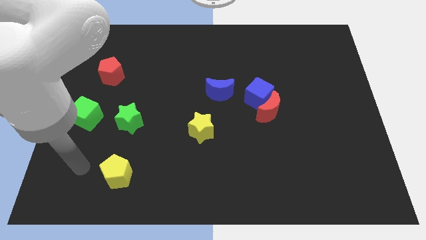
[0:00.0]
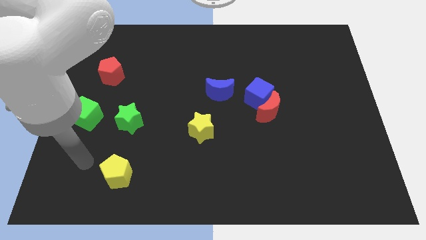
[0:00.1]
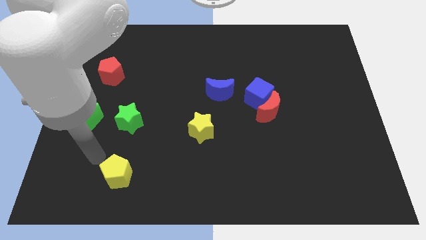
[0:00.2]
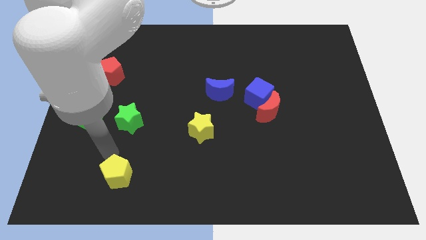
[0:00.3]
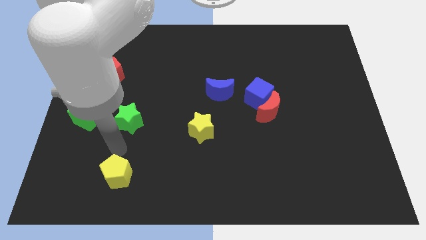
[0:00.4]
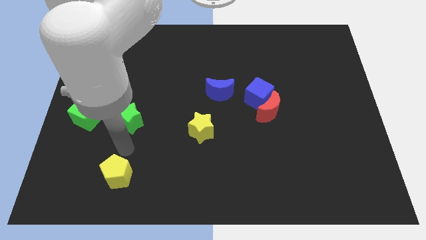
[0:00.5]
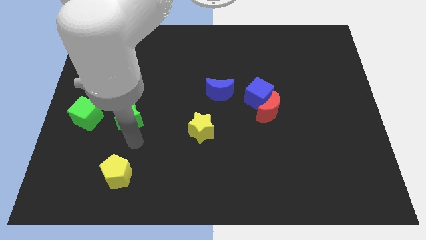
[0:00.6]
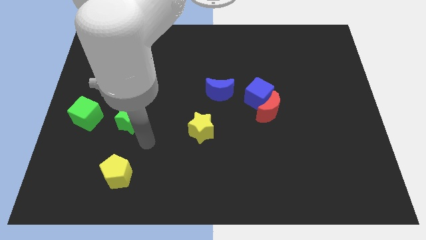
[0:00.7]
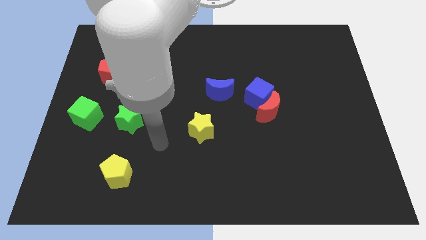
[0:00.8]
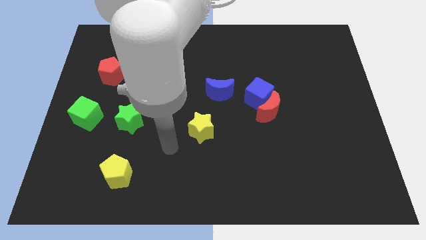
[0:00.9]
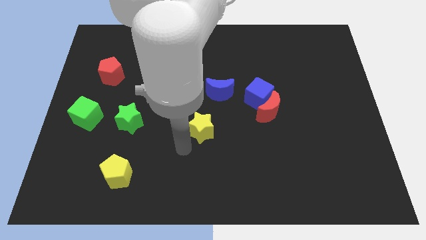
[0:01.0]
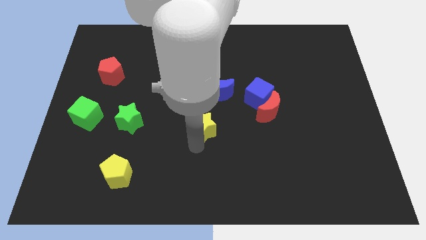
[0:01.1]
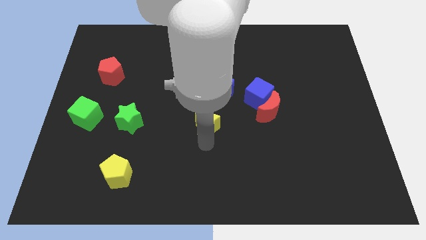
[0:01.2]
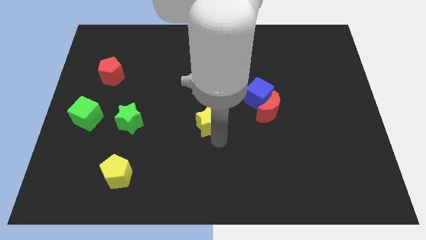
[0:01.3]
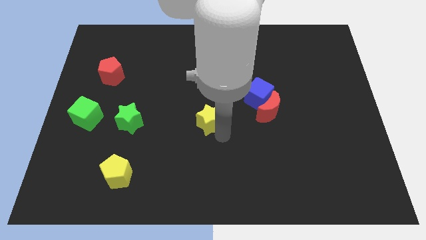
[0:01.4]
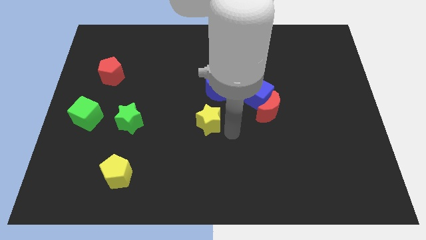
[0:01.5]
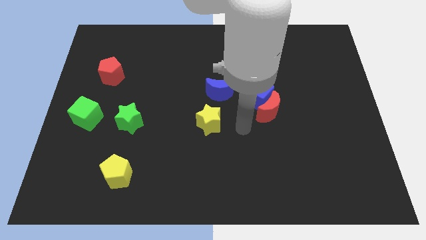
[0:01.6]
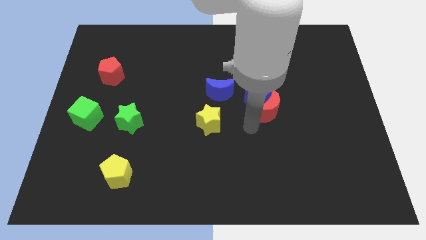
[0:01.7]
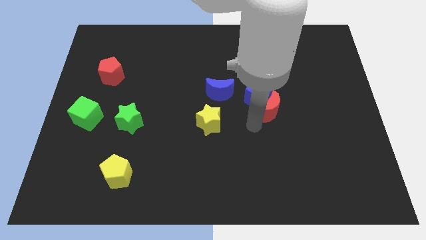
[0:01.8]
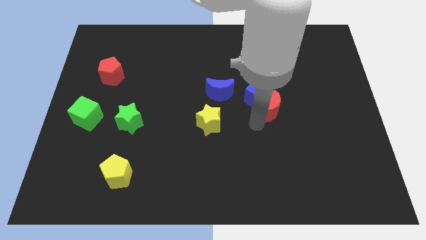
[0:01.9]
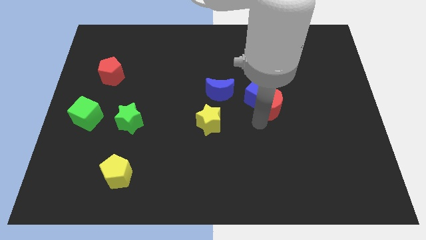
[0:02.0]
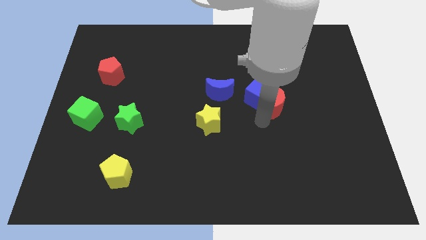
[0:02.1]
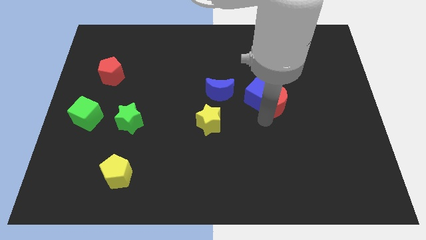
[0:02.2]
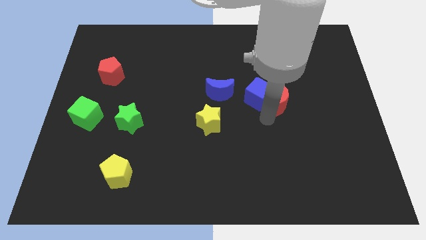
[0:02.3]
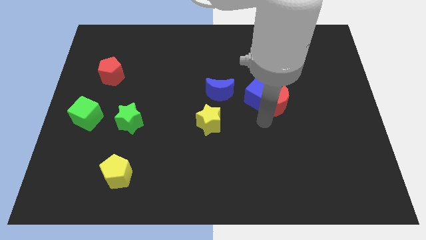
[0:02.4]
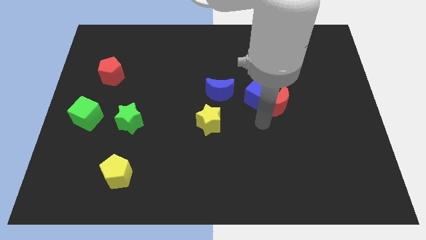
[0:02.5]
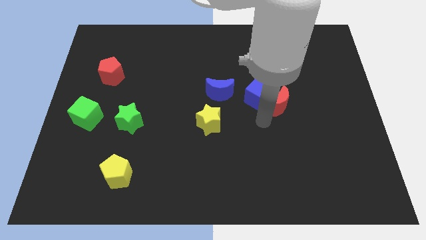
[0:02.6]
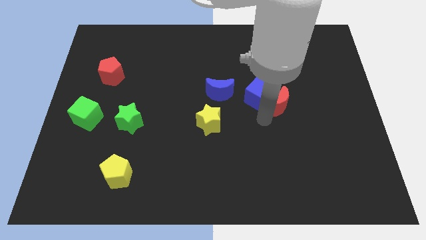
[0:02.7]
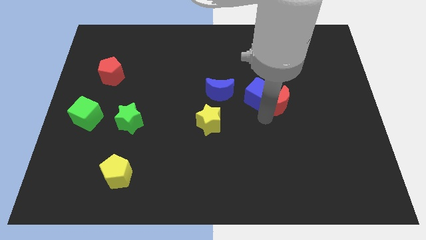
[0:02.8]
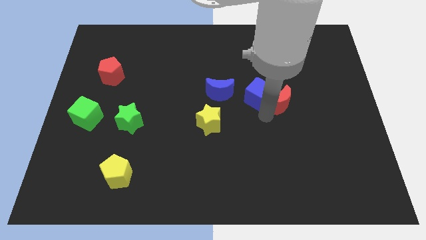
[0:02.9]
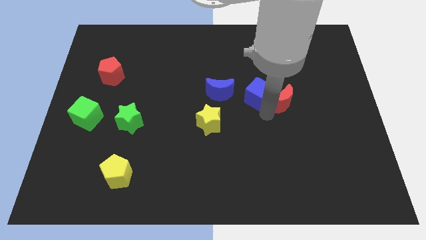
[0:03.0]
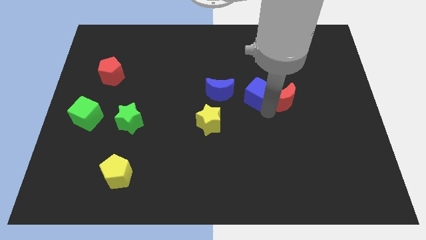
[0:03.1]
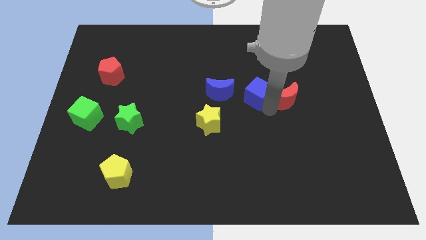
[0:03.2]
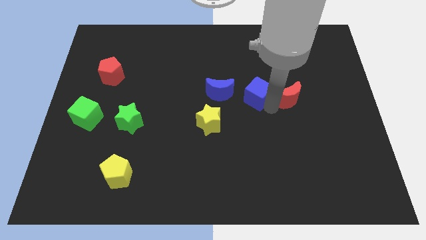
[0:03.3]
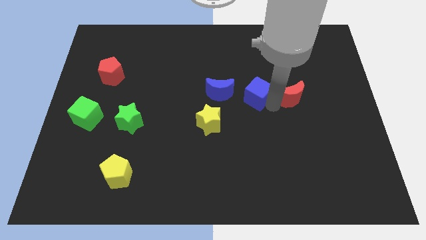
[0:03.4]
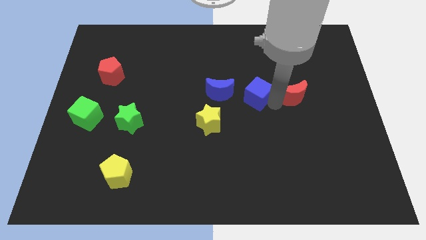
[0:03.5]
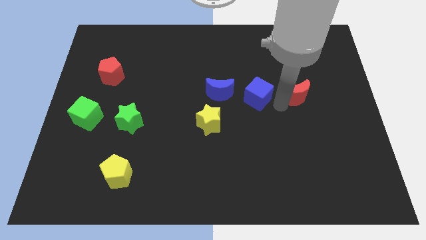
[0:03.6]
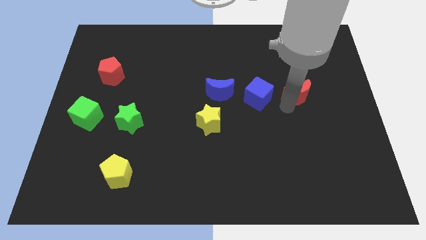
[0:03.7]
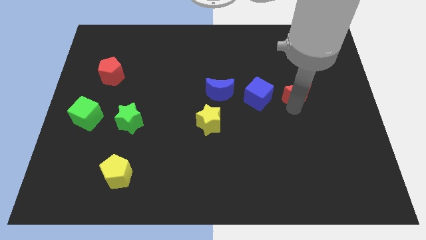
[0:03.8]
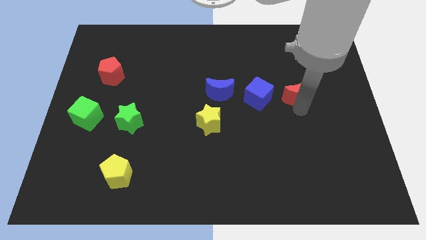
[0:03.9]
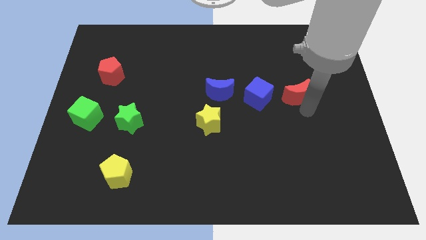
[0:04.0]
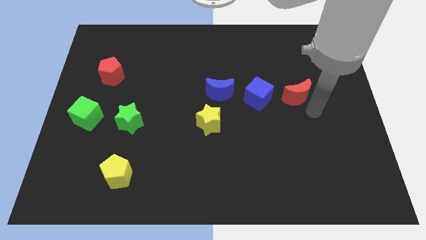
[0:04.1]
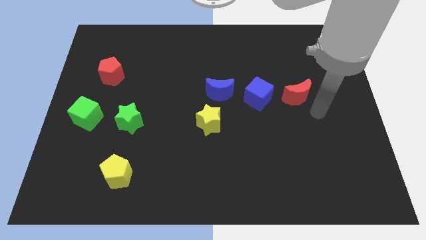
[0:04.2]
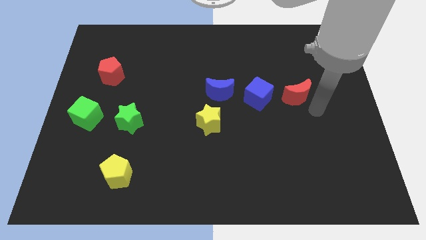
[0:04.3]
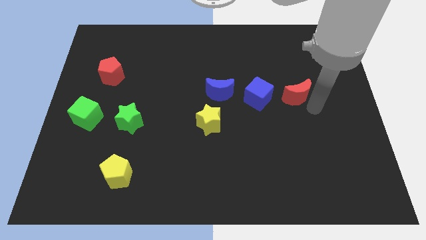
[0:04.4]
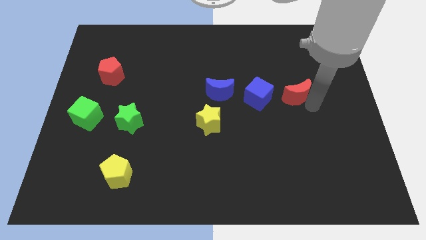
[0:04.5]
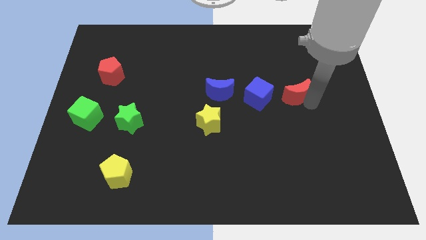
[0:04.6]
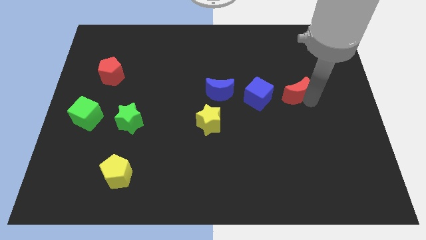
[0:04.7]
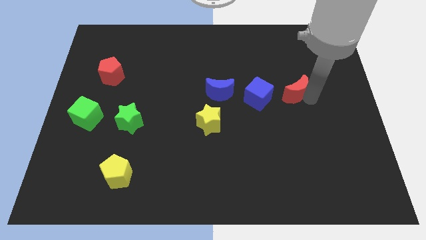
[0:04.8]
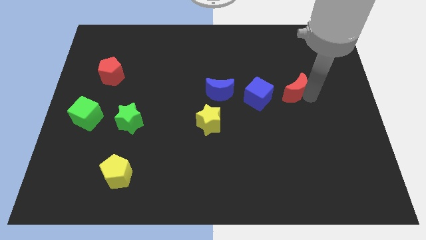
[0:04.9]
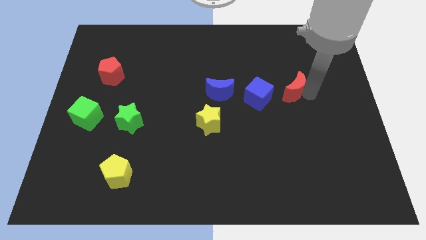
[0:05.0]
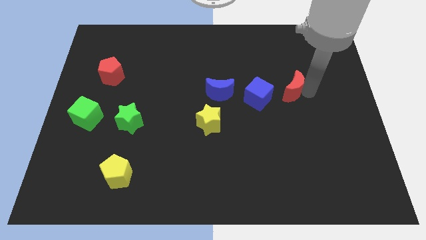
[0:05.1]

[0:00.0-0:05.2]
slide the red moon diagonally up and to the right of the blue cube

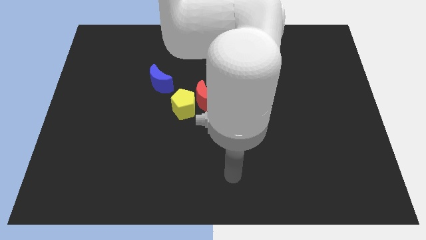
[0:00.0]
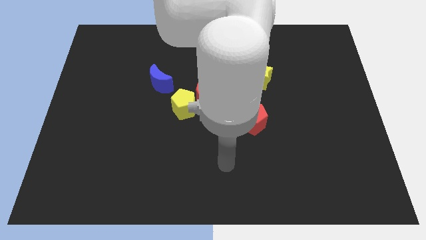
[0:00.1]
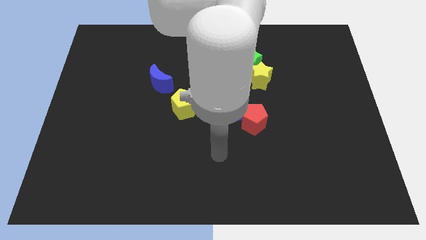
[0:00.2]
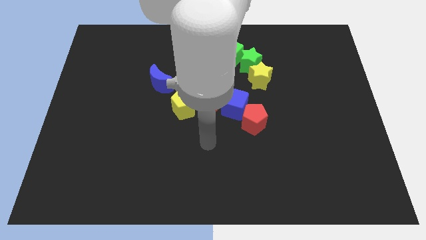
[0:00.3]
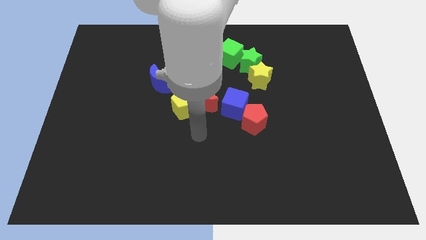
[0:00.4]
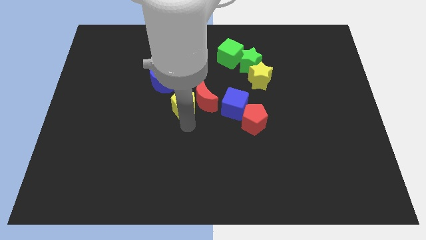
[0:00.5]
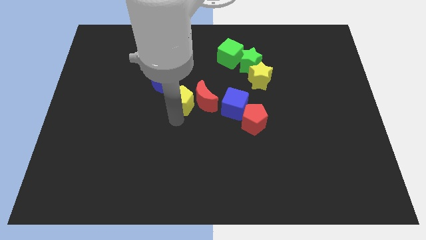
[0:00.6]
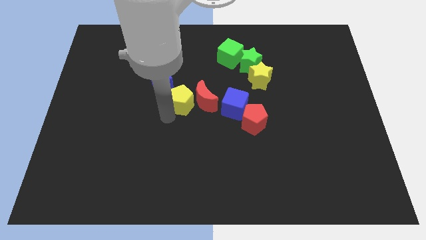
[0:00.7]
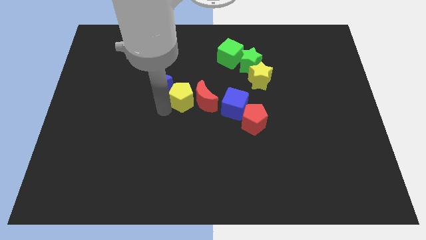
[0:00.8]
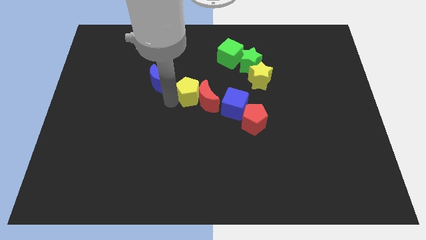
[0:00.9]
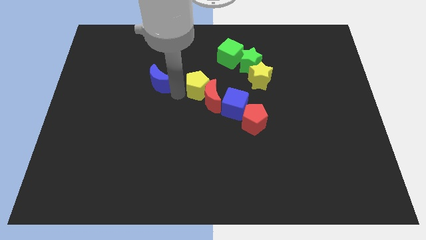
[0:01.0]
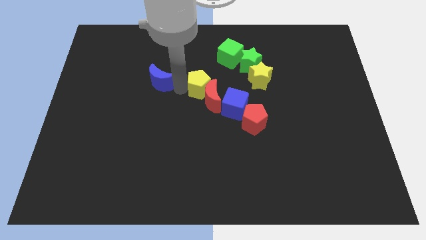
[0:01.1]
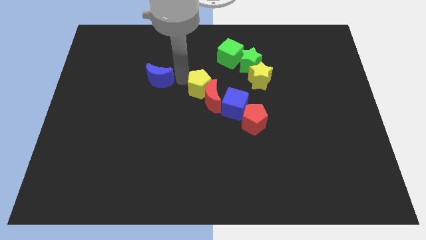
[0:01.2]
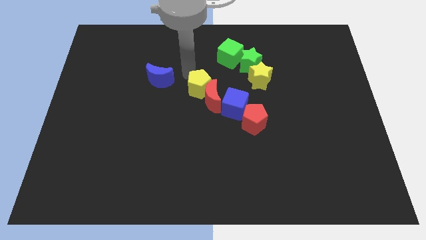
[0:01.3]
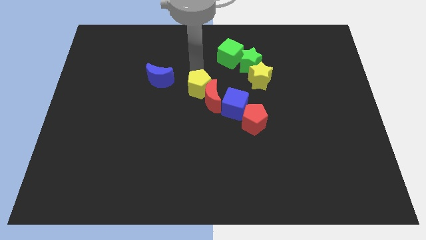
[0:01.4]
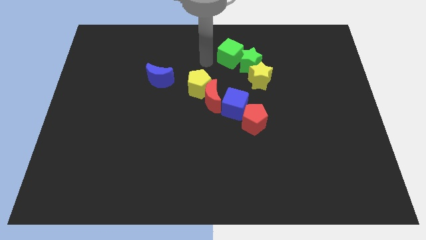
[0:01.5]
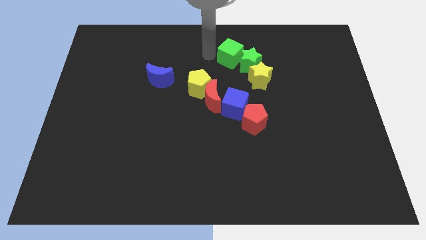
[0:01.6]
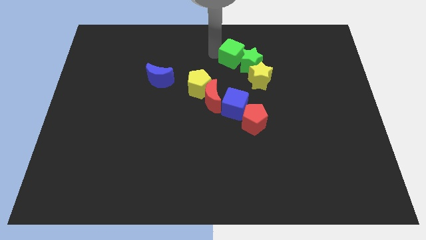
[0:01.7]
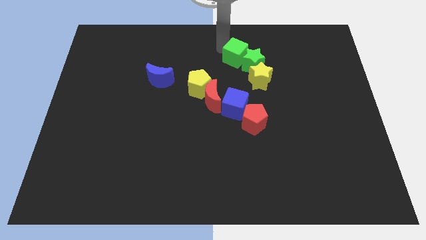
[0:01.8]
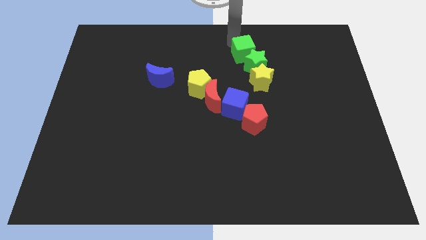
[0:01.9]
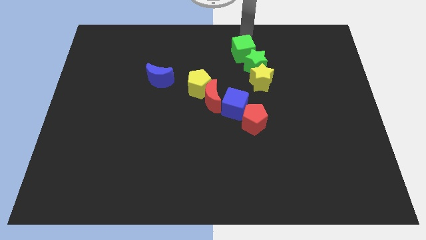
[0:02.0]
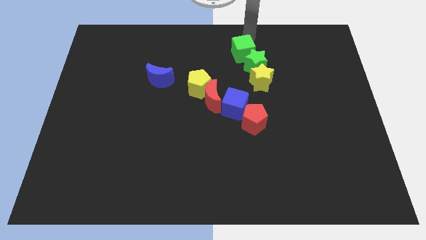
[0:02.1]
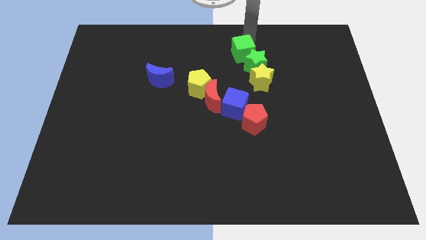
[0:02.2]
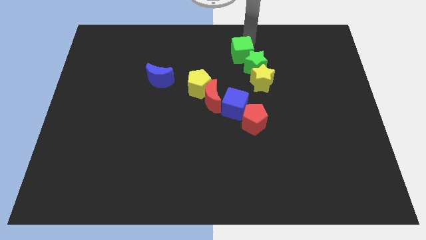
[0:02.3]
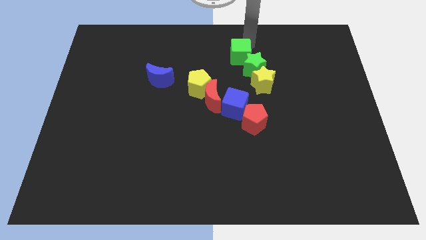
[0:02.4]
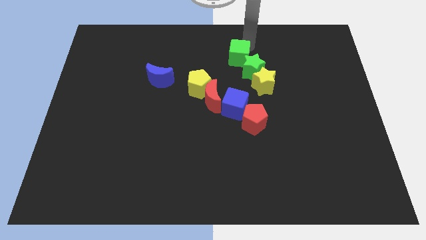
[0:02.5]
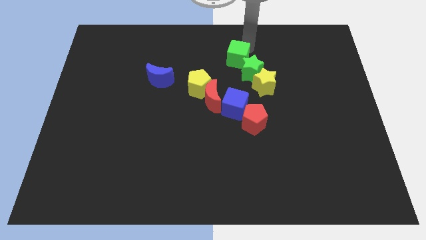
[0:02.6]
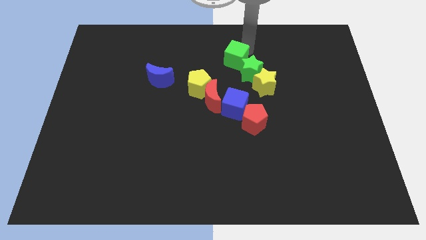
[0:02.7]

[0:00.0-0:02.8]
slide the green cube to the top side of the blue cube
